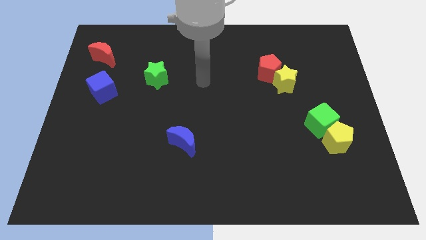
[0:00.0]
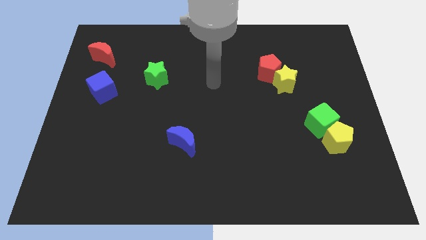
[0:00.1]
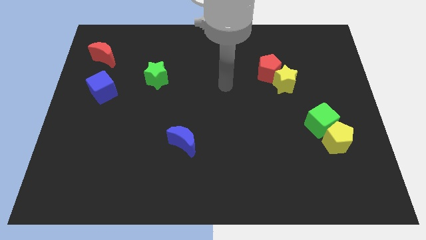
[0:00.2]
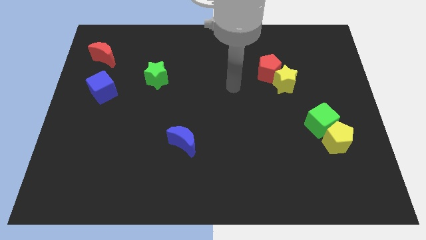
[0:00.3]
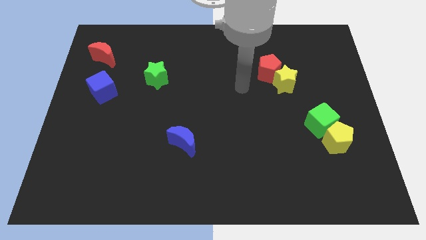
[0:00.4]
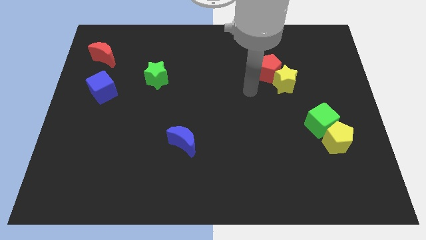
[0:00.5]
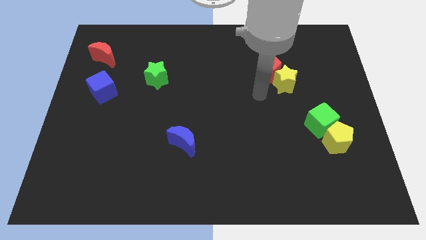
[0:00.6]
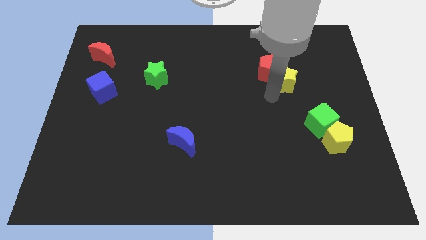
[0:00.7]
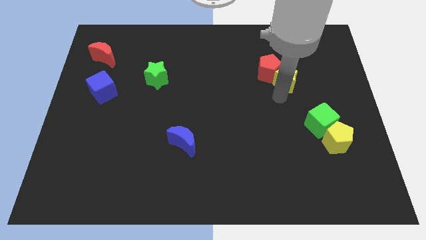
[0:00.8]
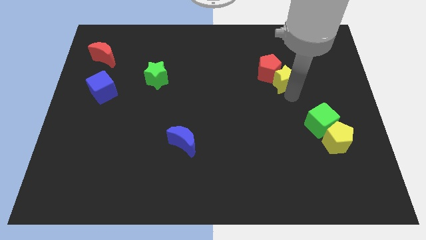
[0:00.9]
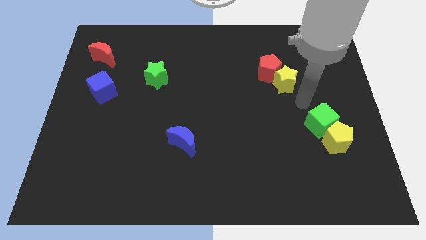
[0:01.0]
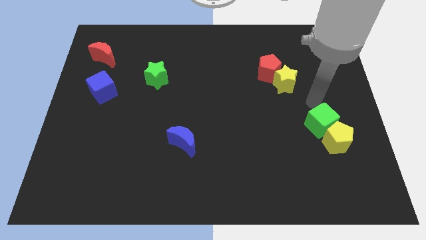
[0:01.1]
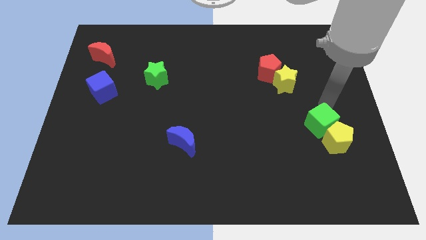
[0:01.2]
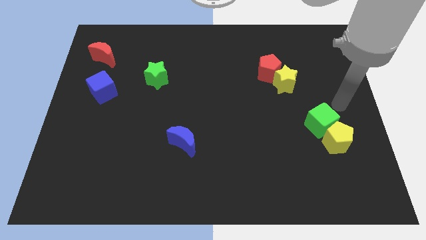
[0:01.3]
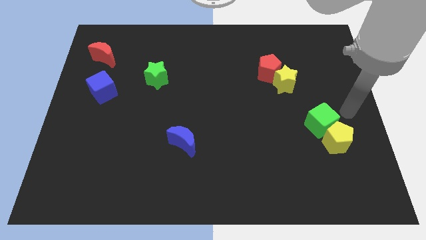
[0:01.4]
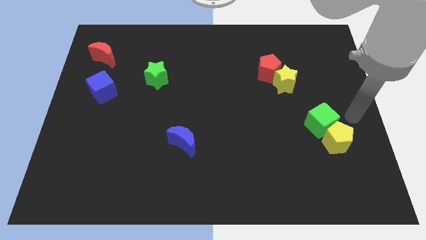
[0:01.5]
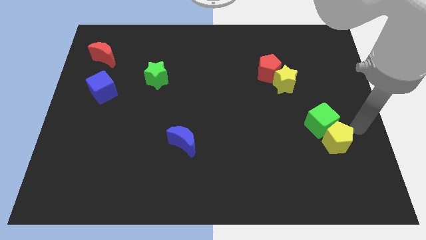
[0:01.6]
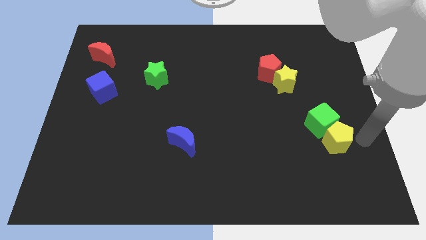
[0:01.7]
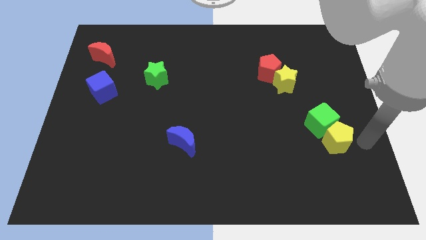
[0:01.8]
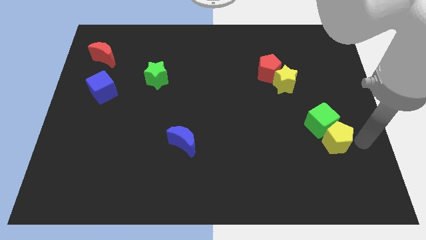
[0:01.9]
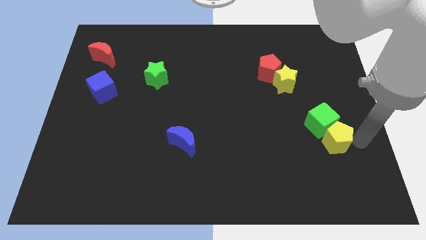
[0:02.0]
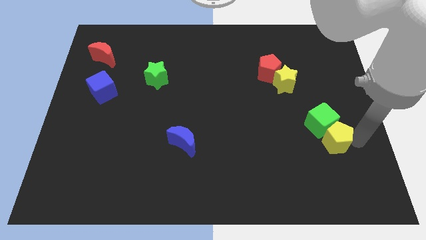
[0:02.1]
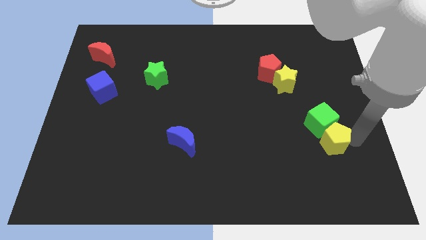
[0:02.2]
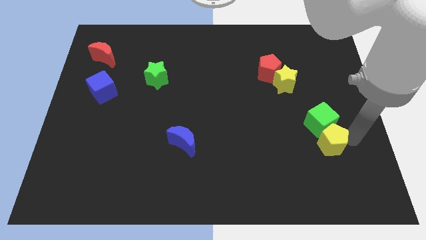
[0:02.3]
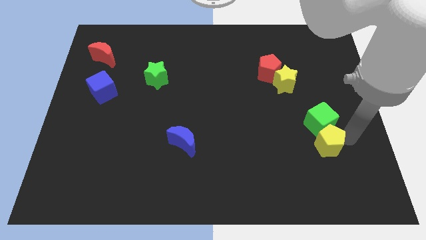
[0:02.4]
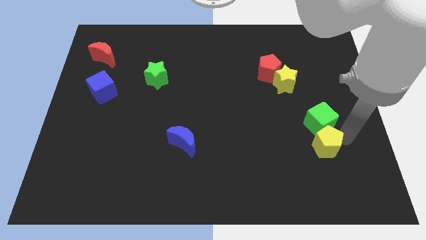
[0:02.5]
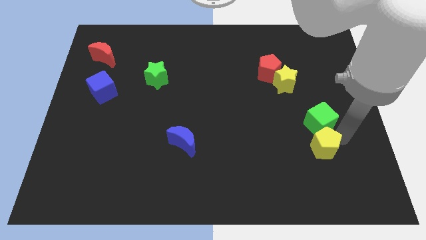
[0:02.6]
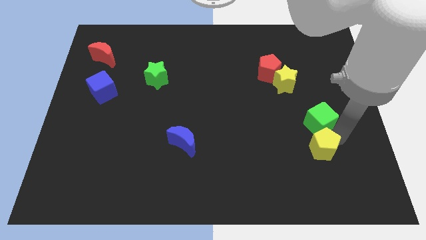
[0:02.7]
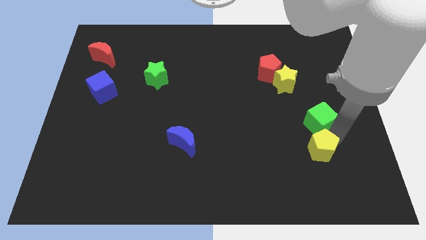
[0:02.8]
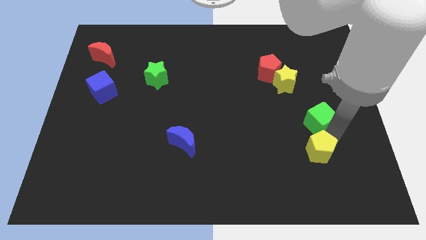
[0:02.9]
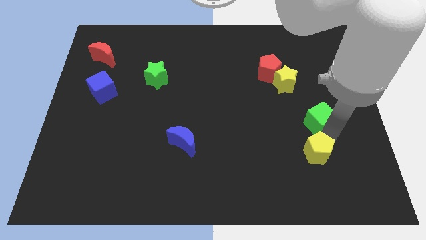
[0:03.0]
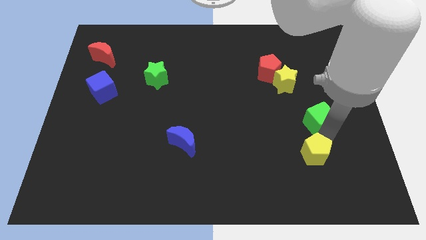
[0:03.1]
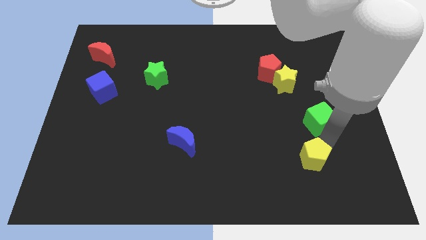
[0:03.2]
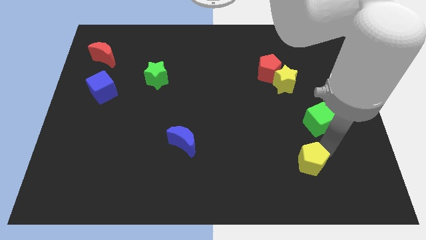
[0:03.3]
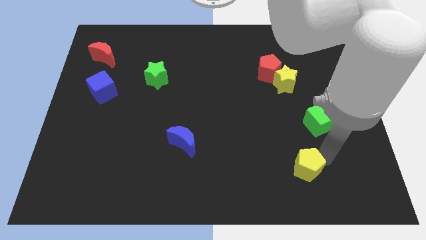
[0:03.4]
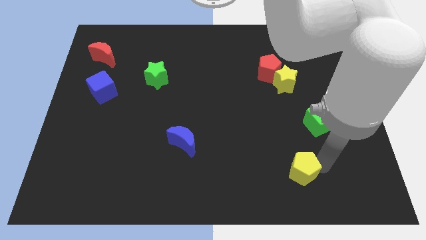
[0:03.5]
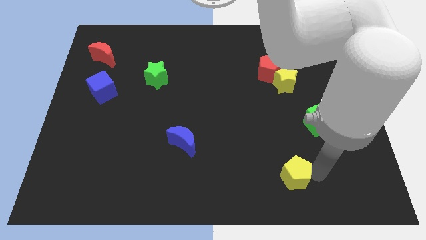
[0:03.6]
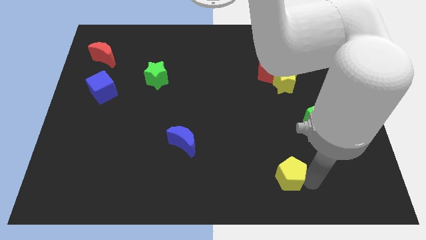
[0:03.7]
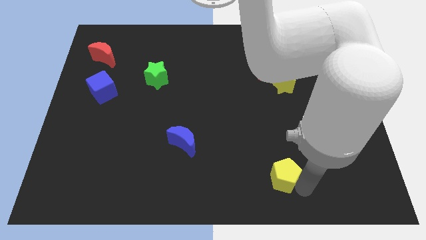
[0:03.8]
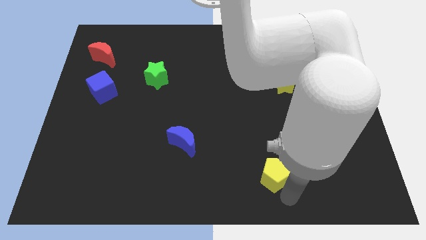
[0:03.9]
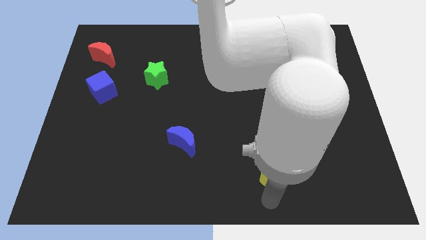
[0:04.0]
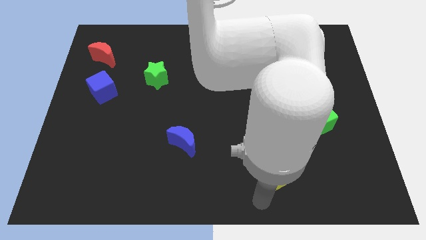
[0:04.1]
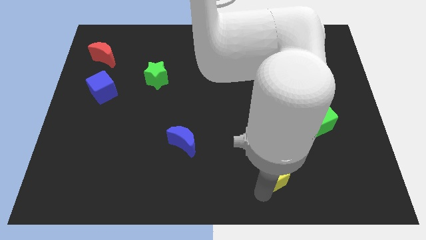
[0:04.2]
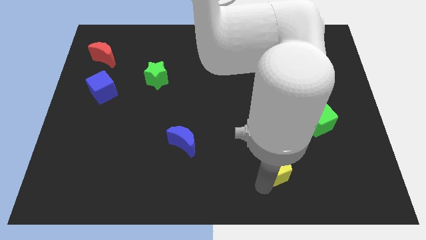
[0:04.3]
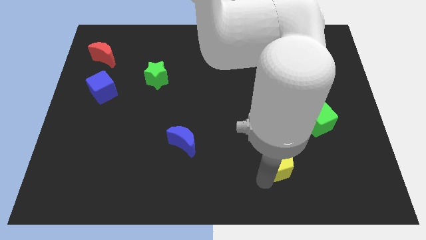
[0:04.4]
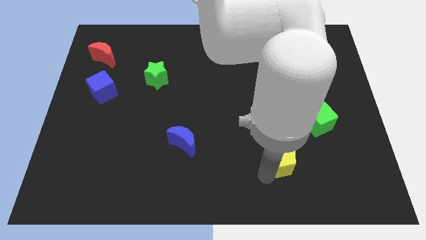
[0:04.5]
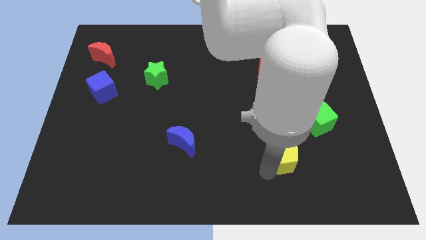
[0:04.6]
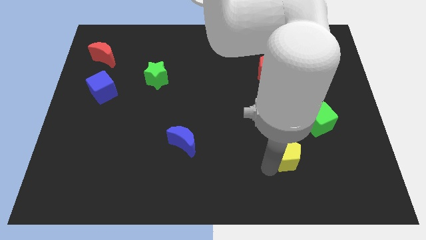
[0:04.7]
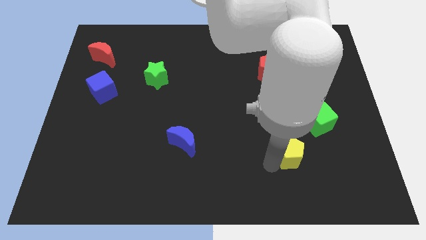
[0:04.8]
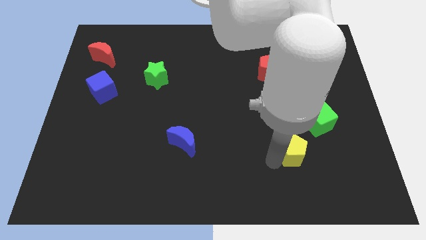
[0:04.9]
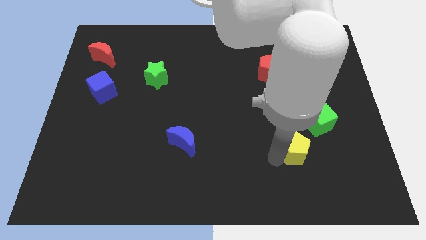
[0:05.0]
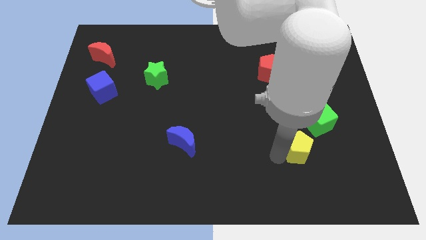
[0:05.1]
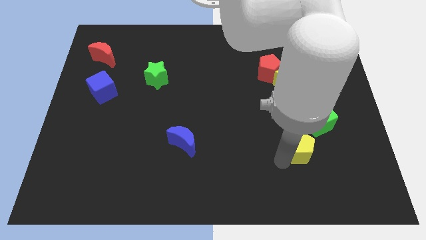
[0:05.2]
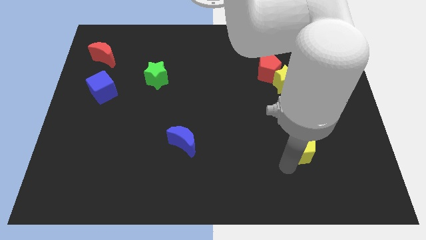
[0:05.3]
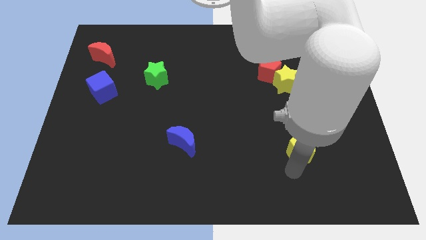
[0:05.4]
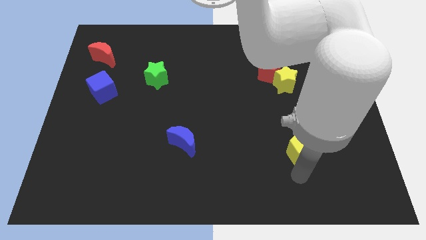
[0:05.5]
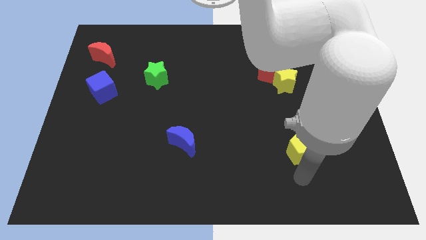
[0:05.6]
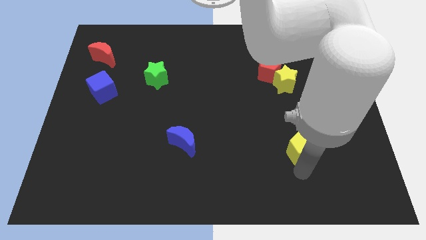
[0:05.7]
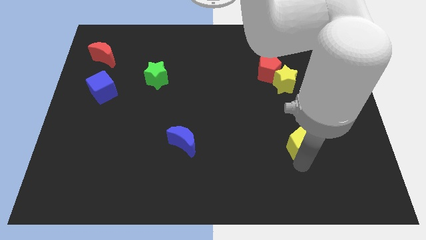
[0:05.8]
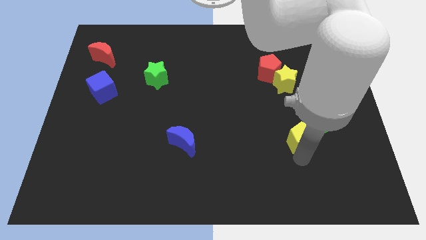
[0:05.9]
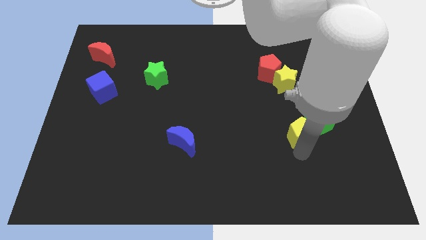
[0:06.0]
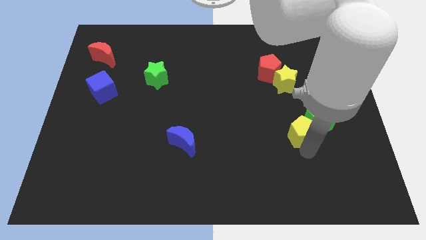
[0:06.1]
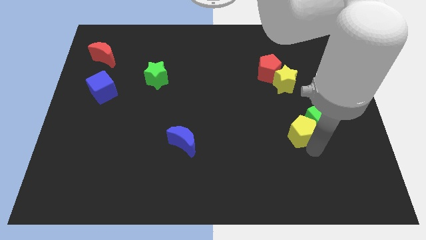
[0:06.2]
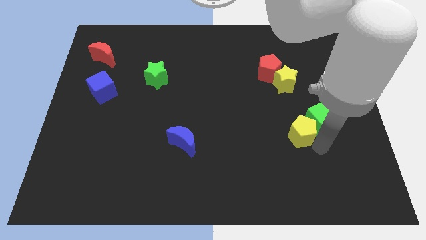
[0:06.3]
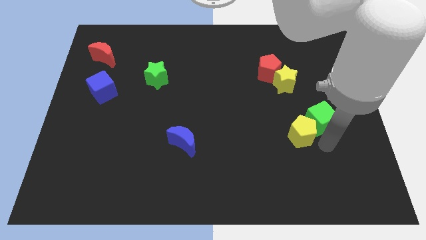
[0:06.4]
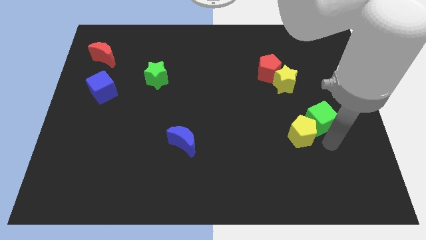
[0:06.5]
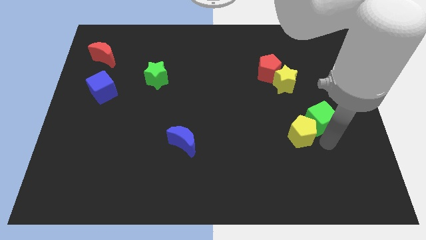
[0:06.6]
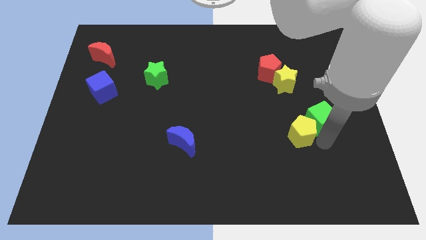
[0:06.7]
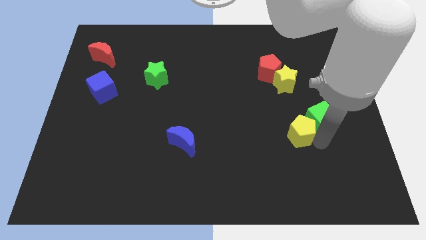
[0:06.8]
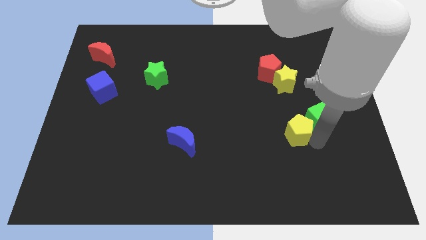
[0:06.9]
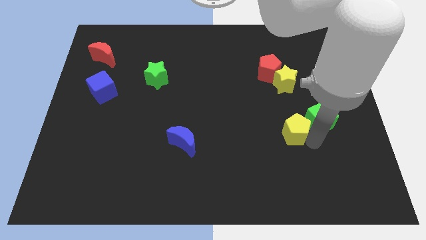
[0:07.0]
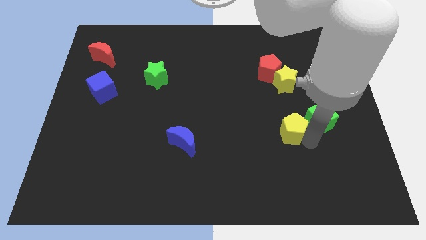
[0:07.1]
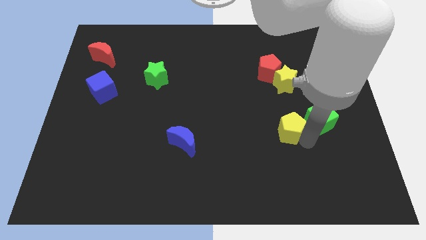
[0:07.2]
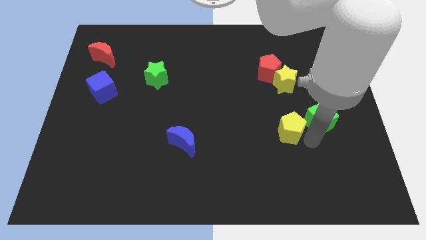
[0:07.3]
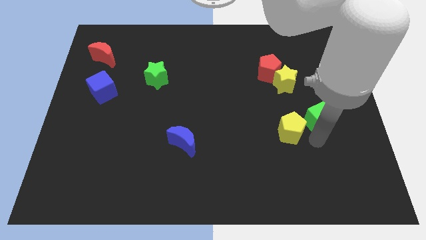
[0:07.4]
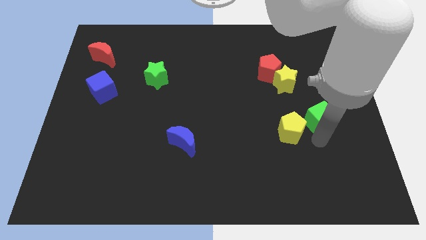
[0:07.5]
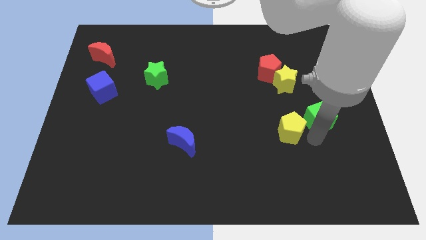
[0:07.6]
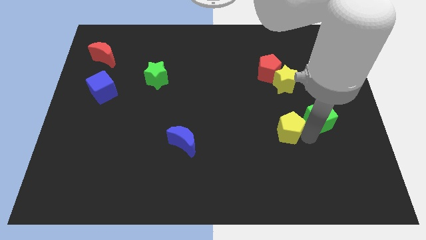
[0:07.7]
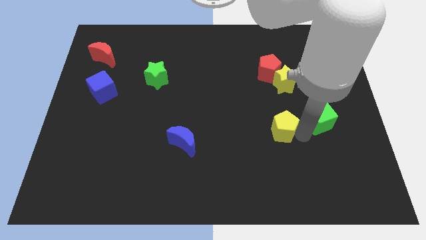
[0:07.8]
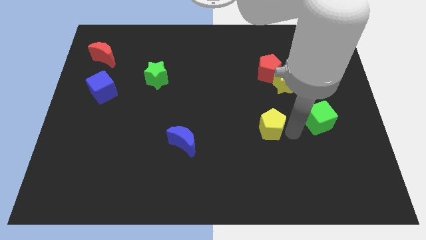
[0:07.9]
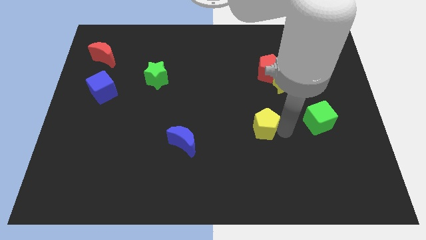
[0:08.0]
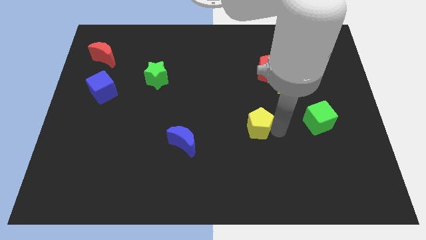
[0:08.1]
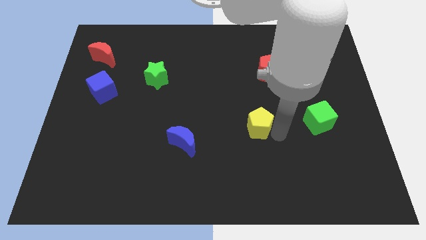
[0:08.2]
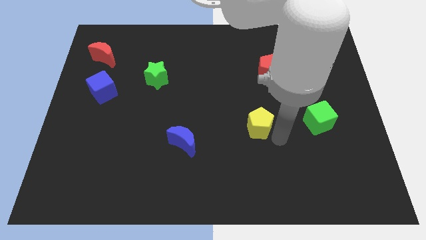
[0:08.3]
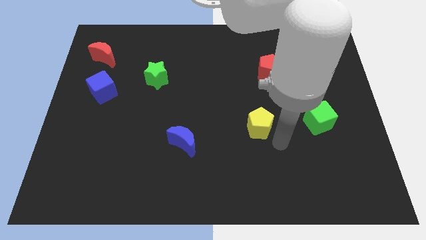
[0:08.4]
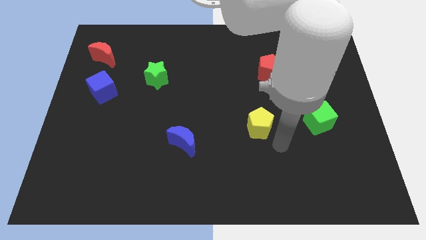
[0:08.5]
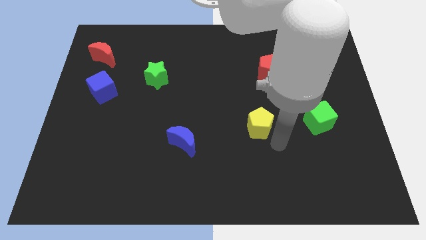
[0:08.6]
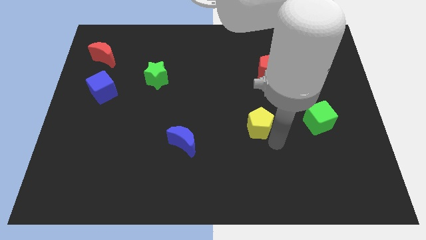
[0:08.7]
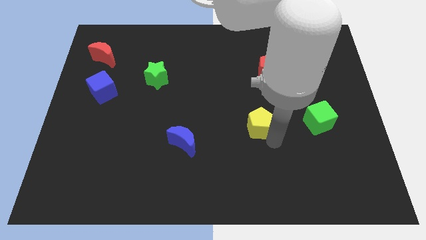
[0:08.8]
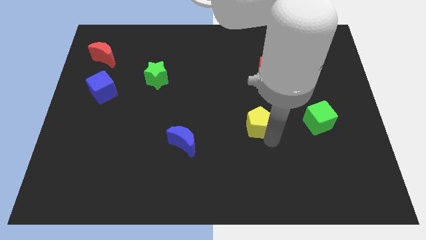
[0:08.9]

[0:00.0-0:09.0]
push the yellow pentagon to the center of the board
